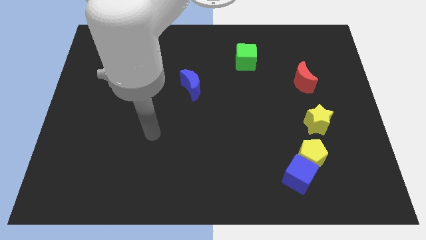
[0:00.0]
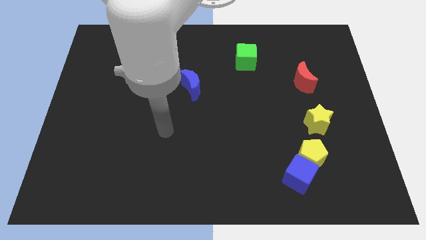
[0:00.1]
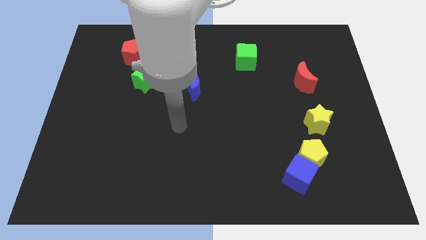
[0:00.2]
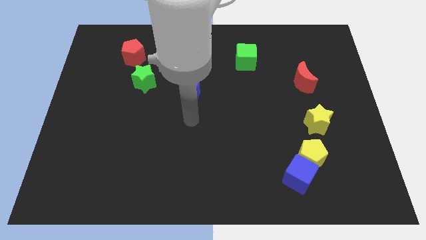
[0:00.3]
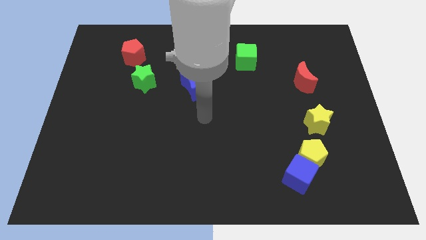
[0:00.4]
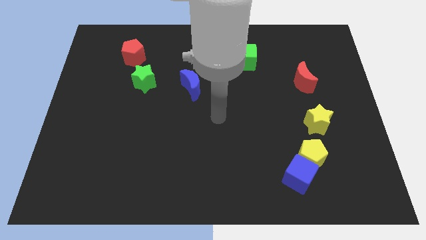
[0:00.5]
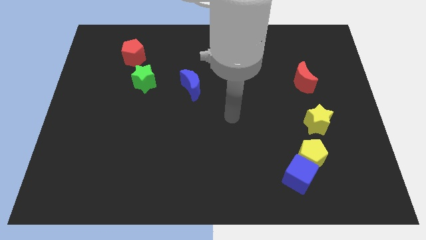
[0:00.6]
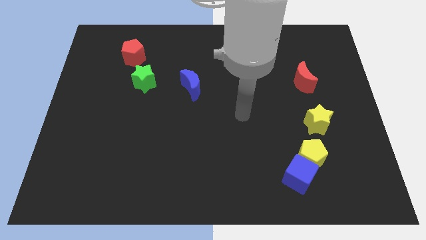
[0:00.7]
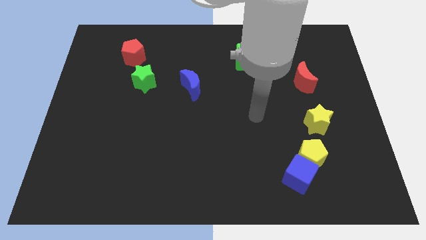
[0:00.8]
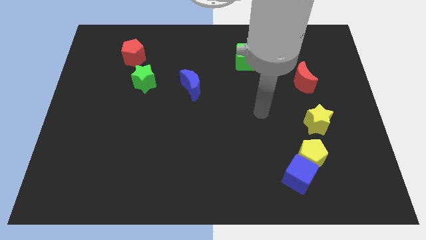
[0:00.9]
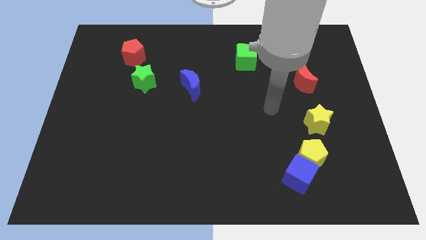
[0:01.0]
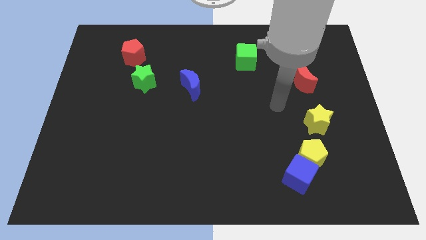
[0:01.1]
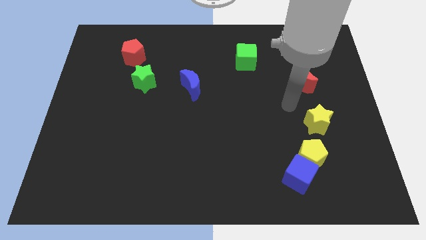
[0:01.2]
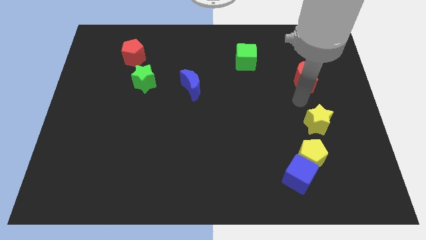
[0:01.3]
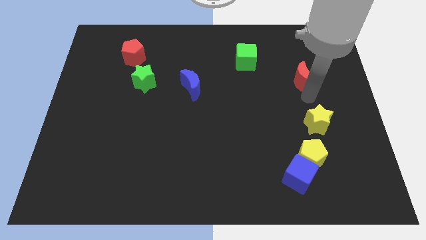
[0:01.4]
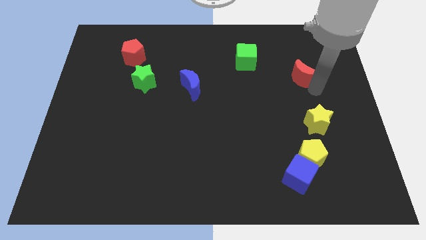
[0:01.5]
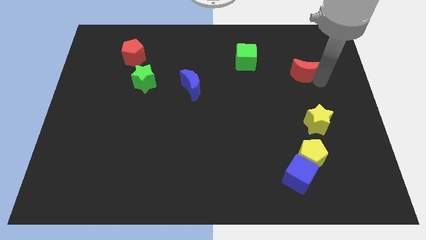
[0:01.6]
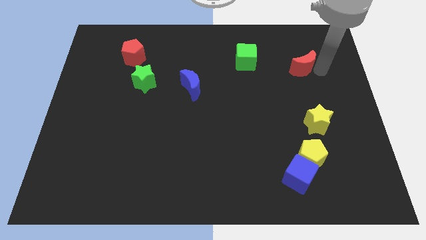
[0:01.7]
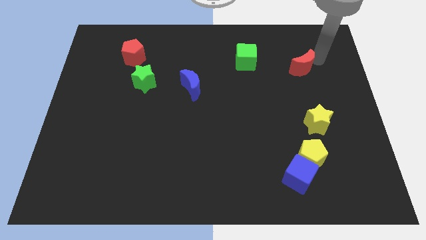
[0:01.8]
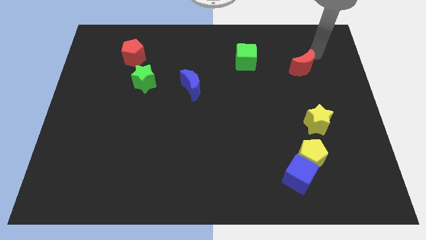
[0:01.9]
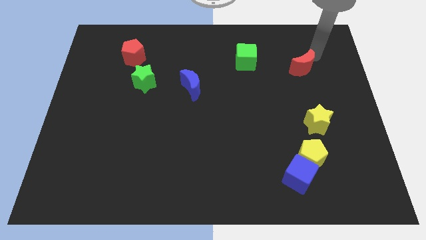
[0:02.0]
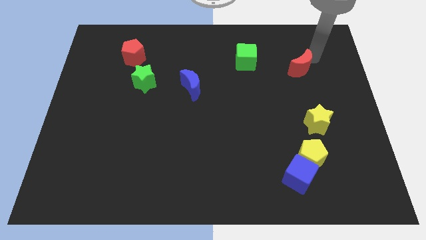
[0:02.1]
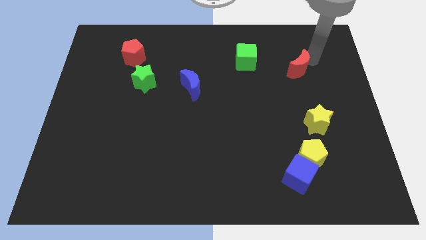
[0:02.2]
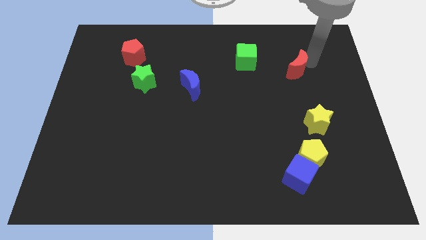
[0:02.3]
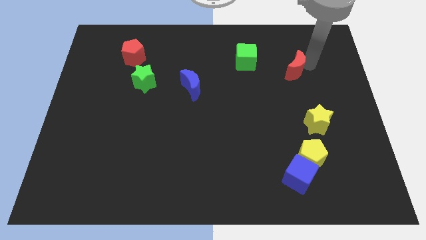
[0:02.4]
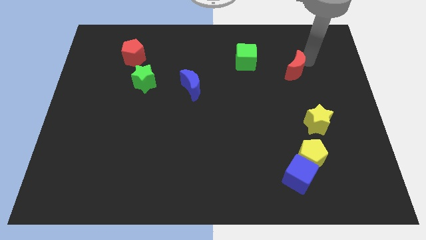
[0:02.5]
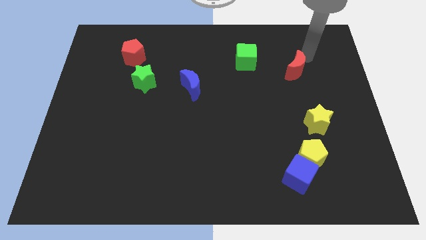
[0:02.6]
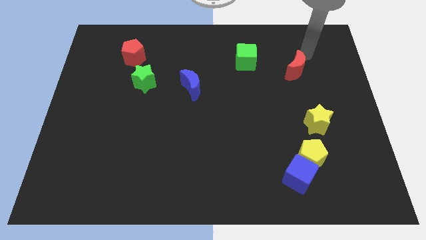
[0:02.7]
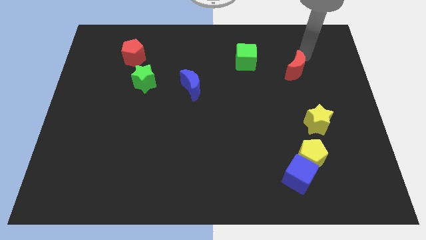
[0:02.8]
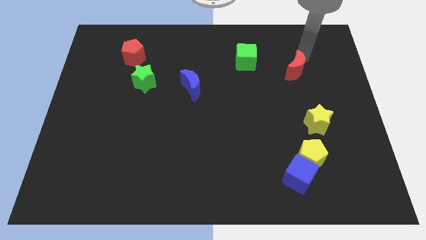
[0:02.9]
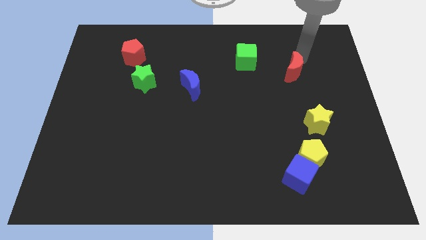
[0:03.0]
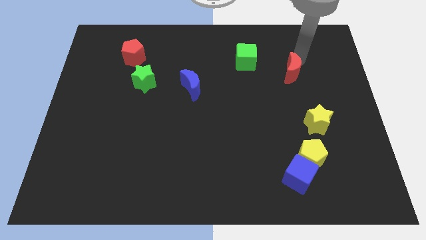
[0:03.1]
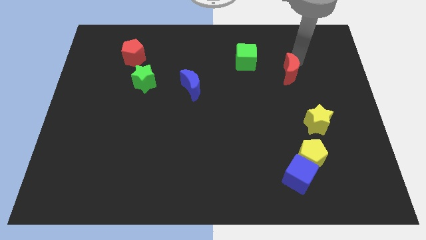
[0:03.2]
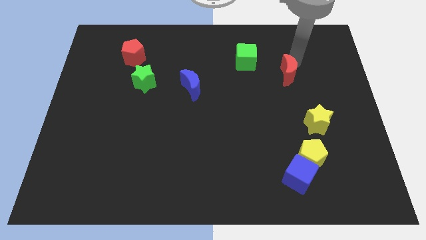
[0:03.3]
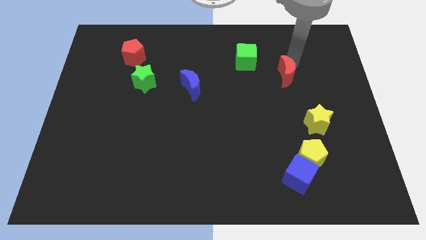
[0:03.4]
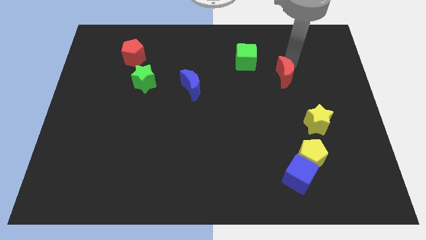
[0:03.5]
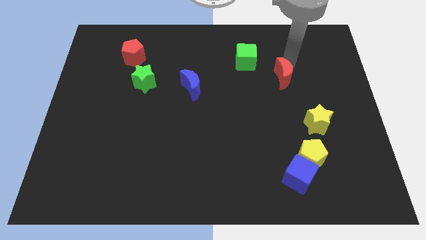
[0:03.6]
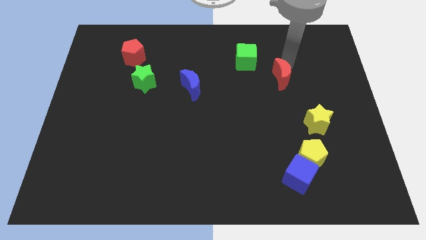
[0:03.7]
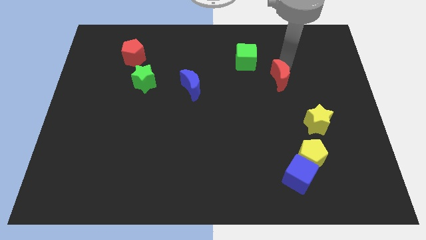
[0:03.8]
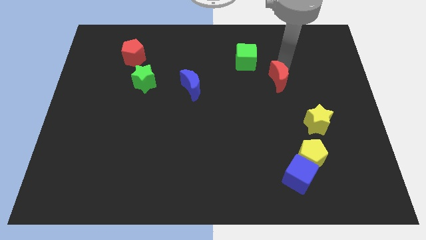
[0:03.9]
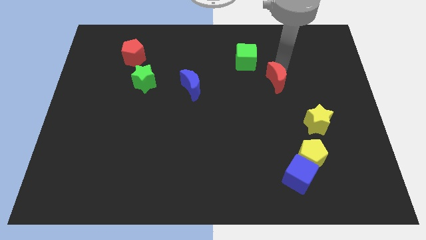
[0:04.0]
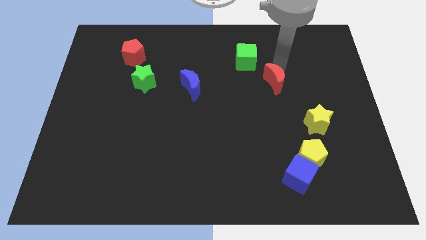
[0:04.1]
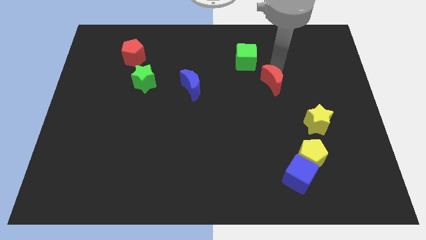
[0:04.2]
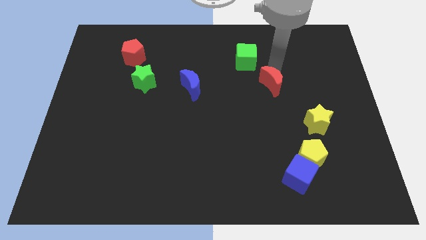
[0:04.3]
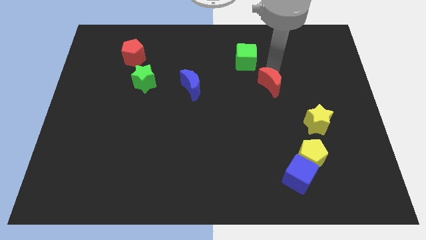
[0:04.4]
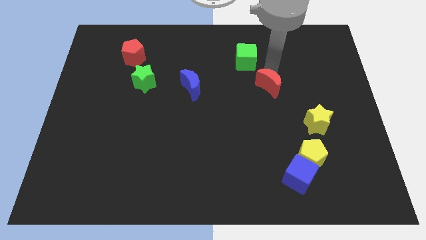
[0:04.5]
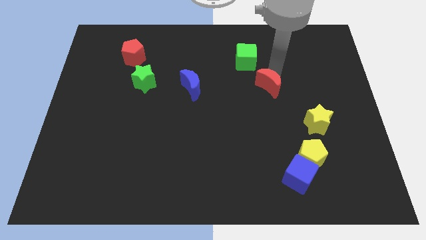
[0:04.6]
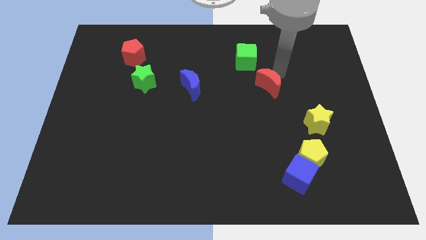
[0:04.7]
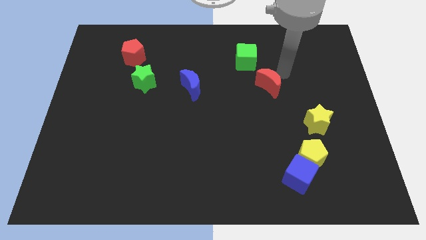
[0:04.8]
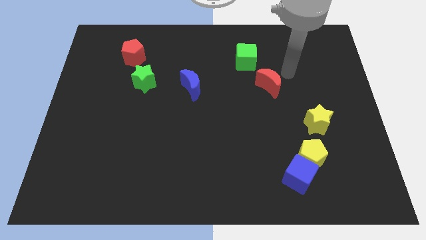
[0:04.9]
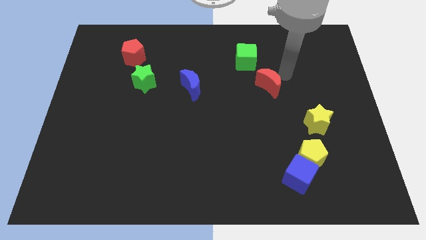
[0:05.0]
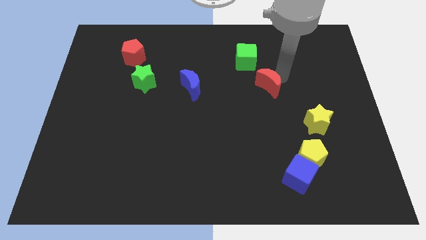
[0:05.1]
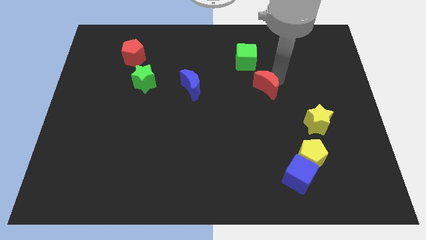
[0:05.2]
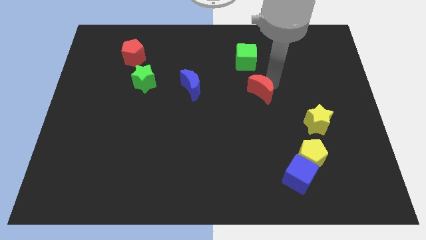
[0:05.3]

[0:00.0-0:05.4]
slide the red moon to the middle

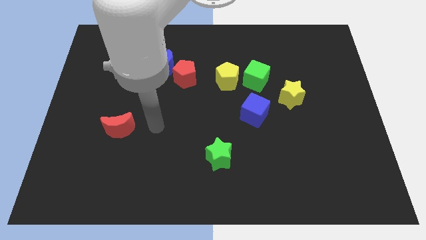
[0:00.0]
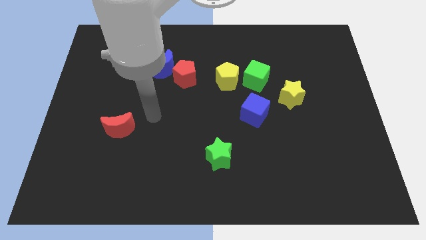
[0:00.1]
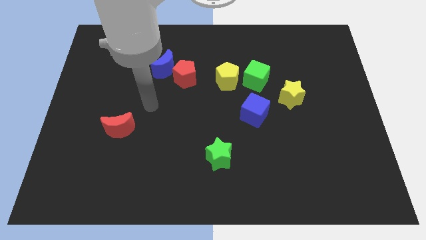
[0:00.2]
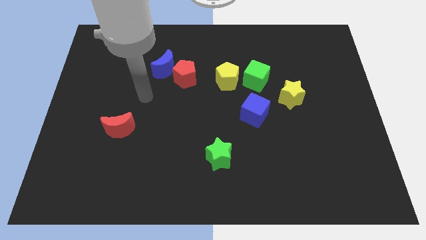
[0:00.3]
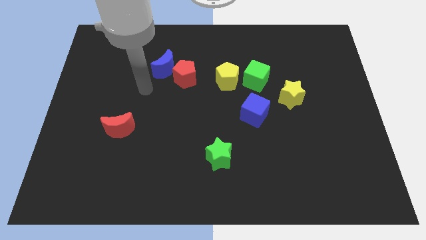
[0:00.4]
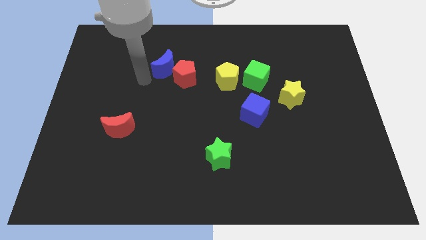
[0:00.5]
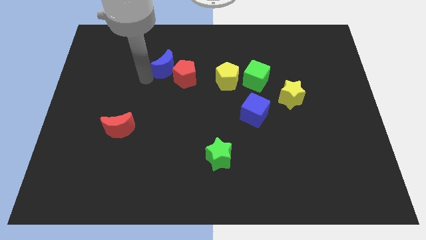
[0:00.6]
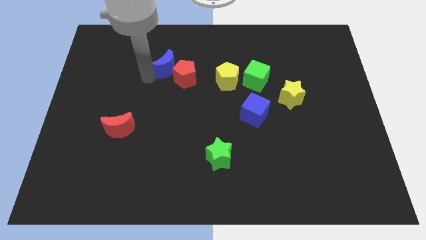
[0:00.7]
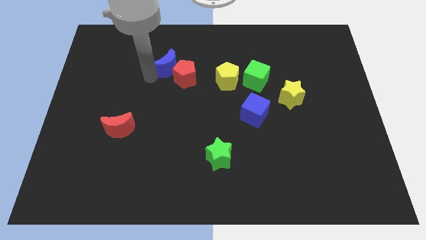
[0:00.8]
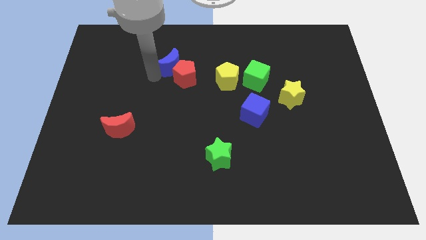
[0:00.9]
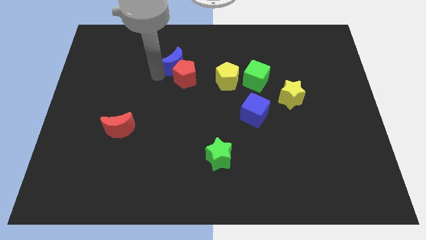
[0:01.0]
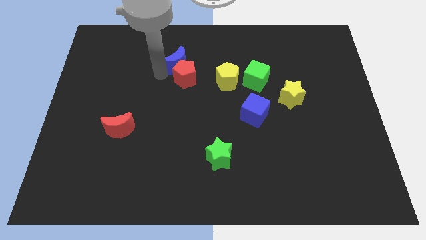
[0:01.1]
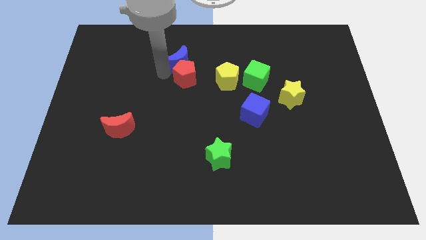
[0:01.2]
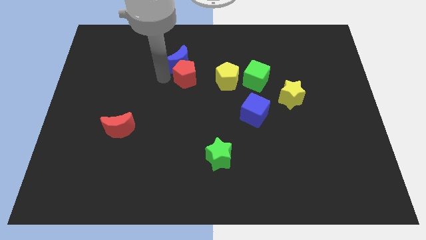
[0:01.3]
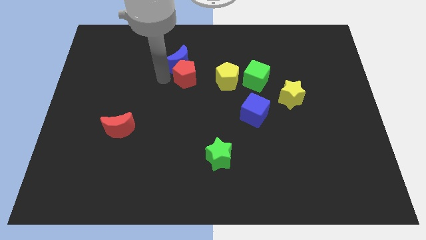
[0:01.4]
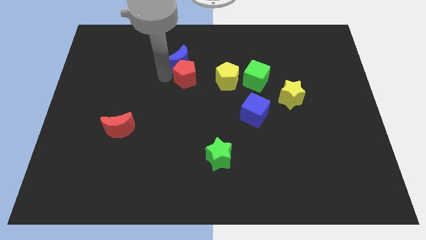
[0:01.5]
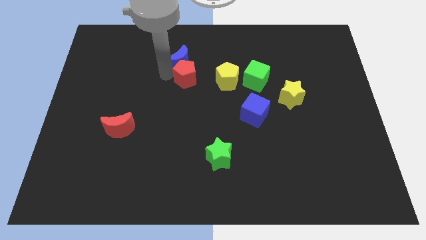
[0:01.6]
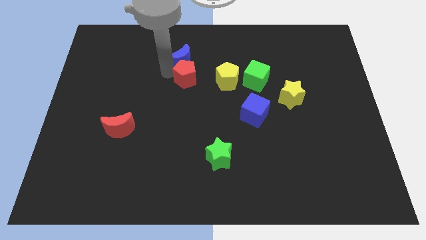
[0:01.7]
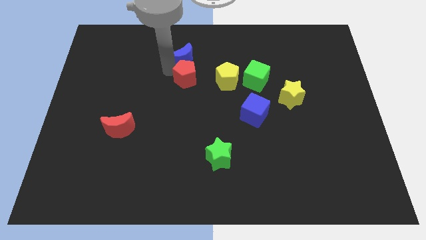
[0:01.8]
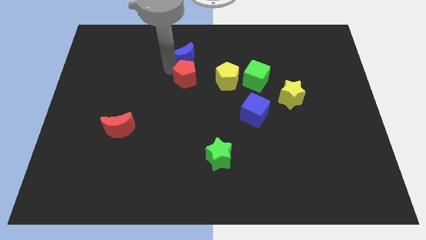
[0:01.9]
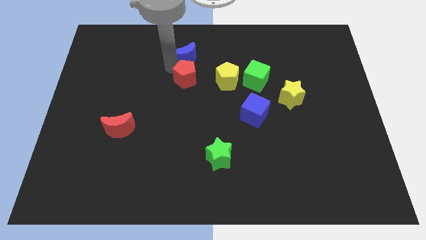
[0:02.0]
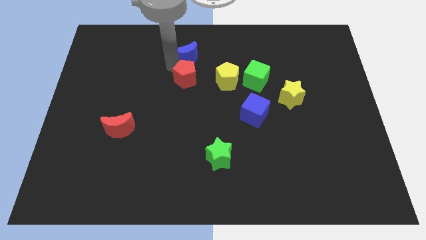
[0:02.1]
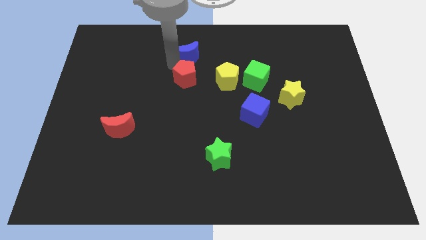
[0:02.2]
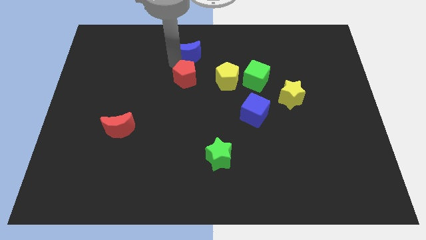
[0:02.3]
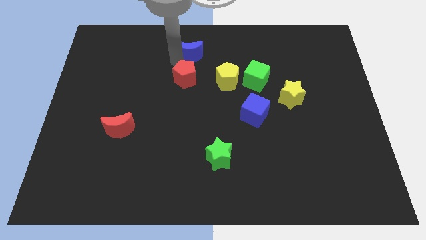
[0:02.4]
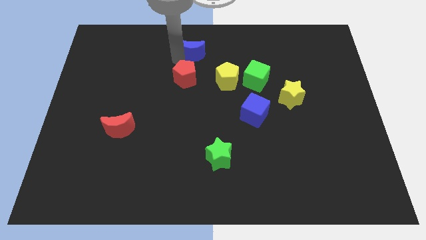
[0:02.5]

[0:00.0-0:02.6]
put the blue moon to the towards your base
